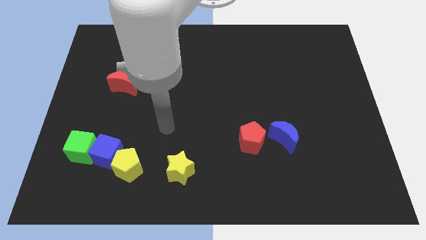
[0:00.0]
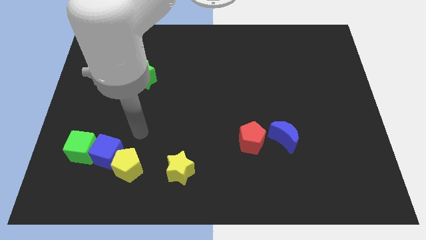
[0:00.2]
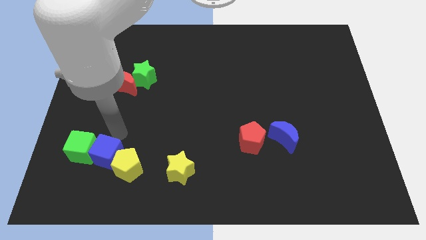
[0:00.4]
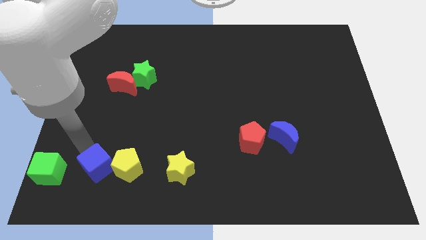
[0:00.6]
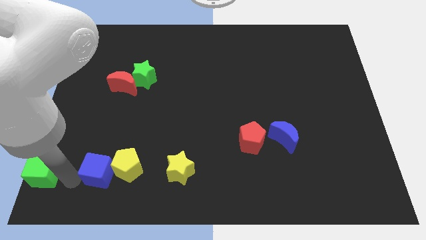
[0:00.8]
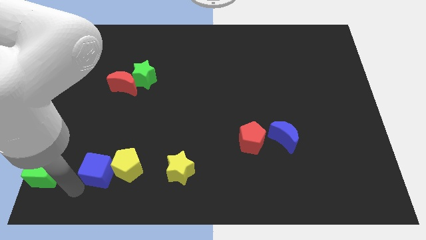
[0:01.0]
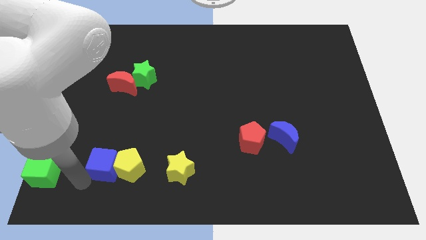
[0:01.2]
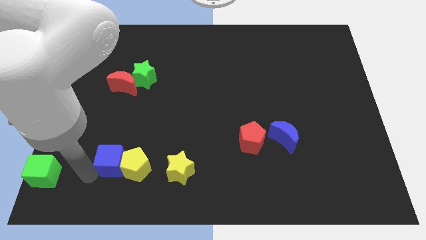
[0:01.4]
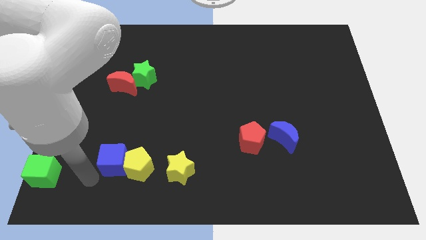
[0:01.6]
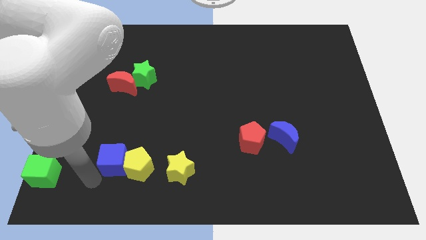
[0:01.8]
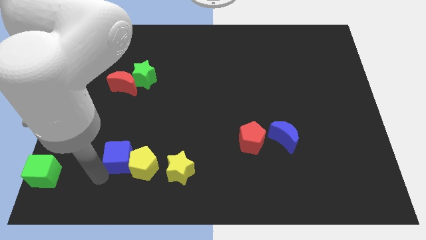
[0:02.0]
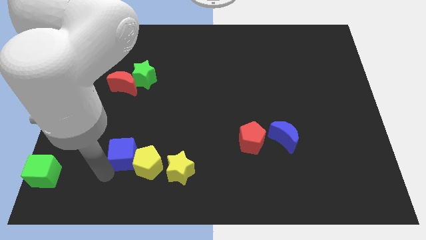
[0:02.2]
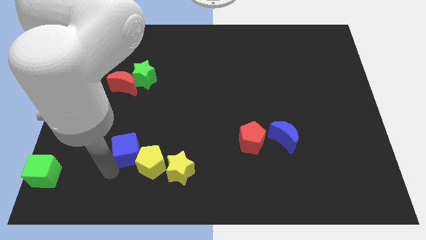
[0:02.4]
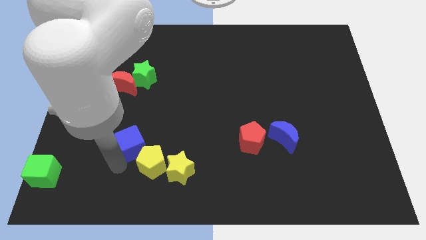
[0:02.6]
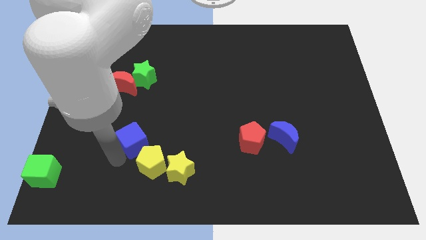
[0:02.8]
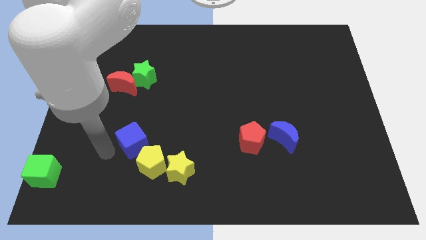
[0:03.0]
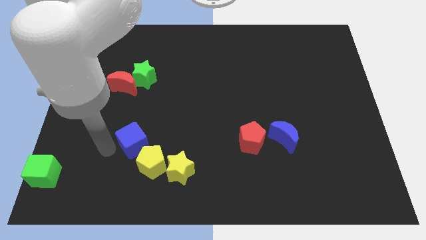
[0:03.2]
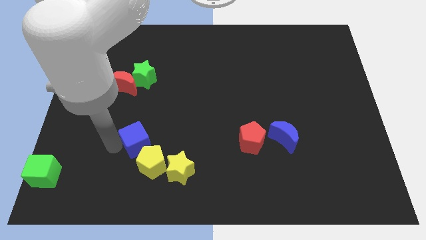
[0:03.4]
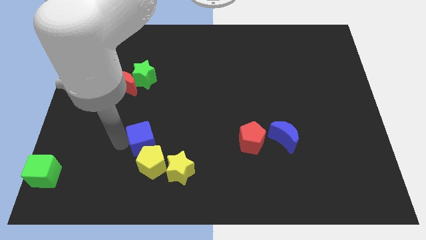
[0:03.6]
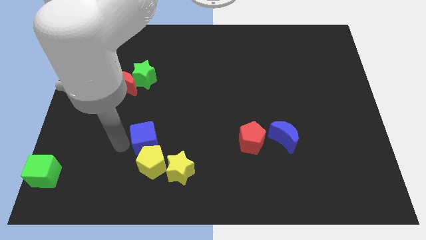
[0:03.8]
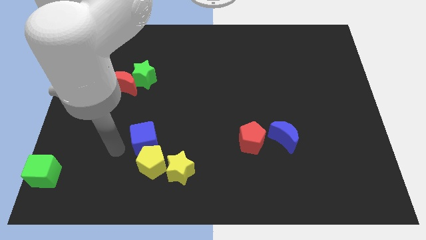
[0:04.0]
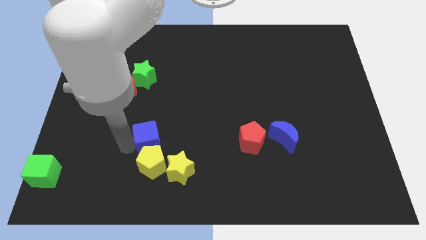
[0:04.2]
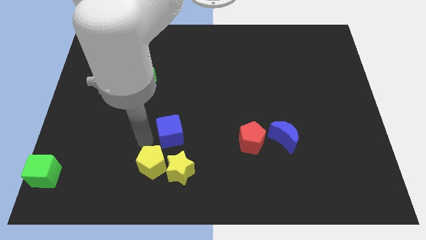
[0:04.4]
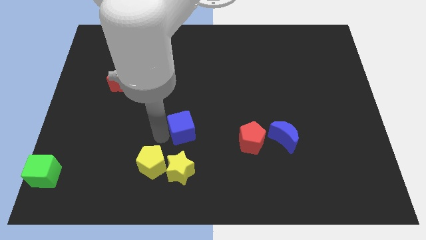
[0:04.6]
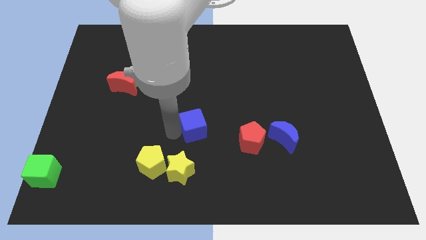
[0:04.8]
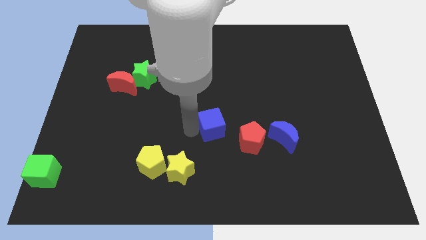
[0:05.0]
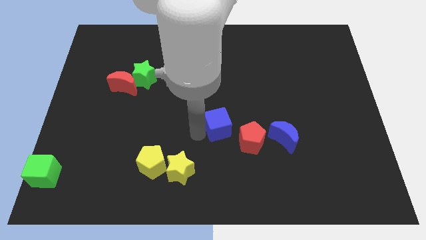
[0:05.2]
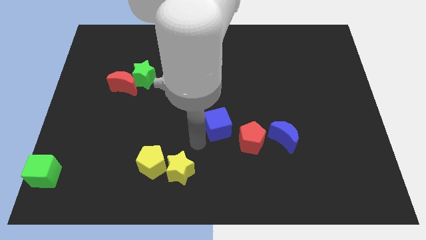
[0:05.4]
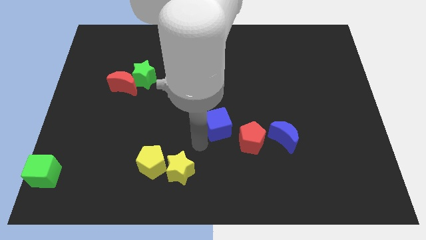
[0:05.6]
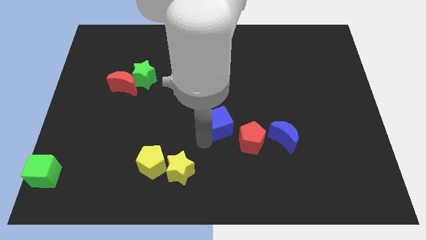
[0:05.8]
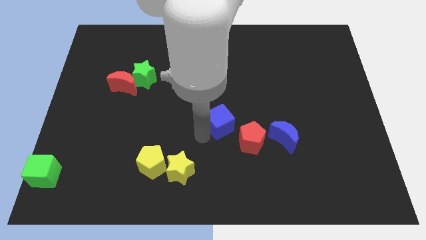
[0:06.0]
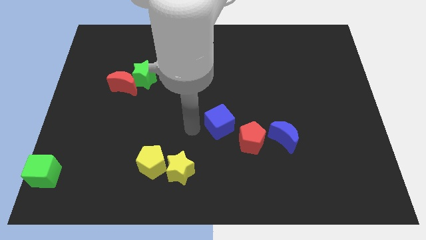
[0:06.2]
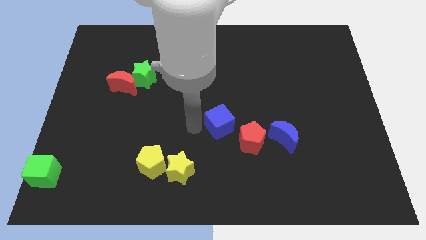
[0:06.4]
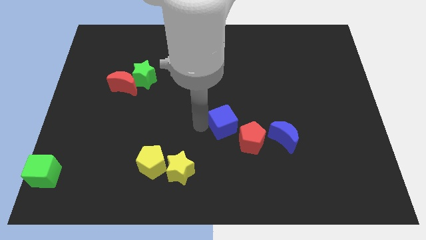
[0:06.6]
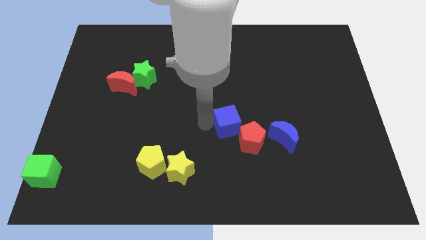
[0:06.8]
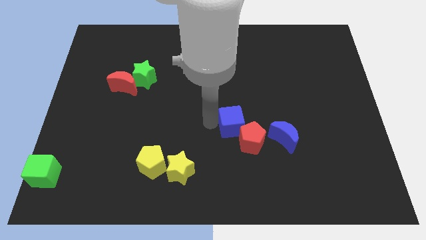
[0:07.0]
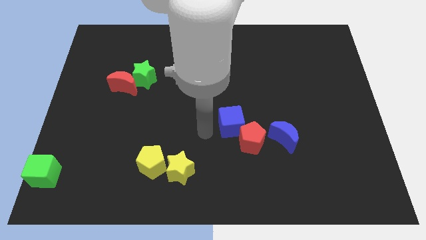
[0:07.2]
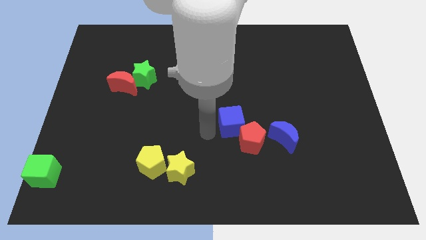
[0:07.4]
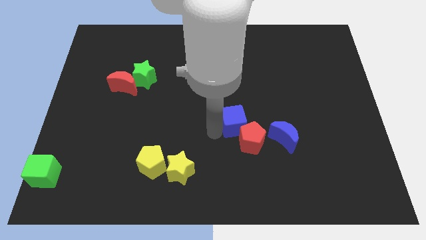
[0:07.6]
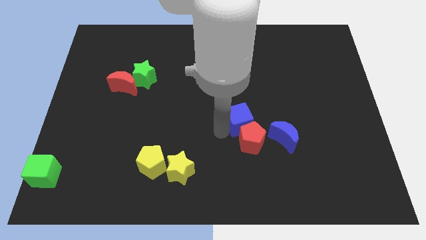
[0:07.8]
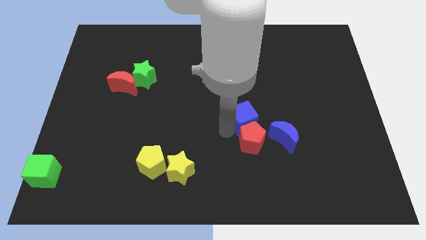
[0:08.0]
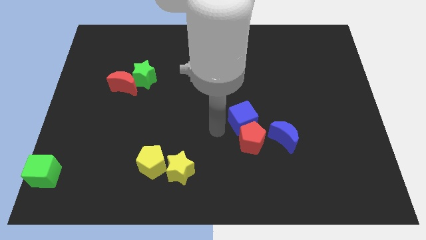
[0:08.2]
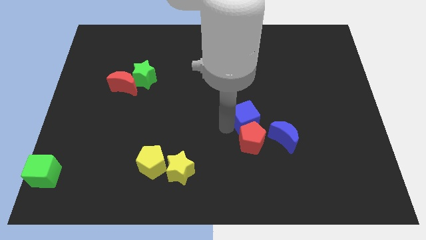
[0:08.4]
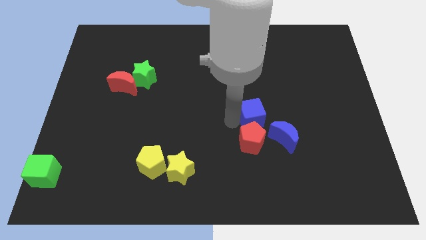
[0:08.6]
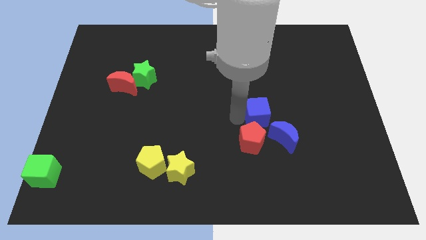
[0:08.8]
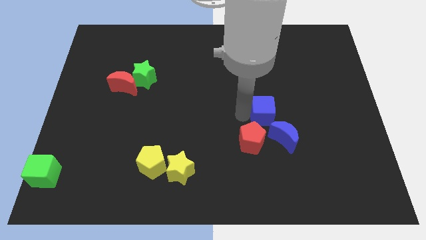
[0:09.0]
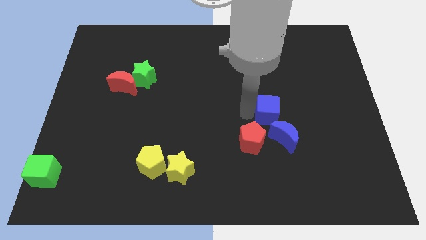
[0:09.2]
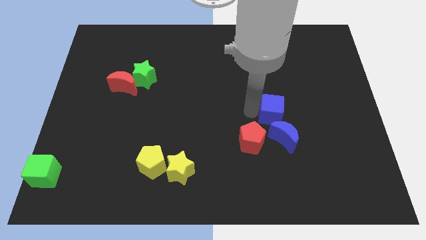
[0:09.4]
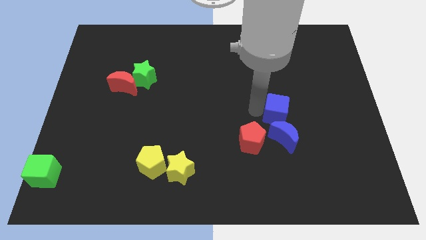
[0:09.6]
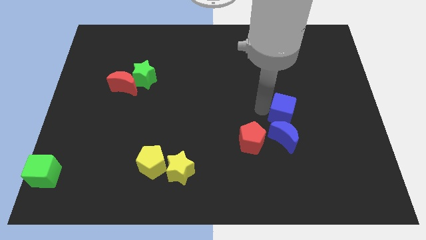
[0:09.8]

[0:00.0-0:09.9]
slide the blue cube to the top right of the blue moon

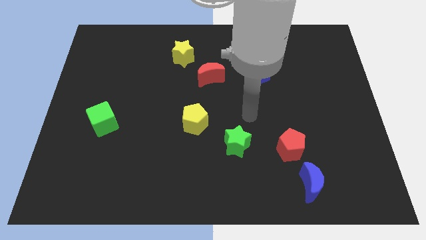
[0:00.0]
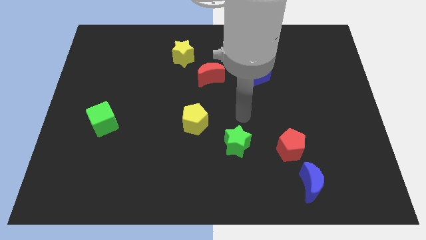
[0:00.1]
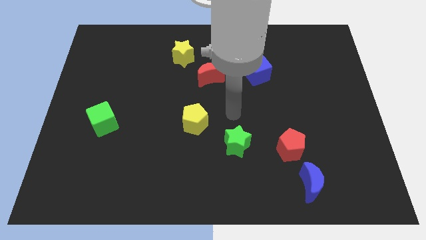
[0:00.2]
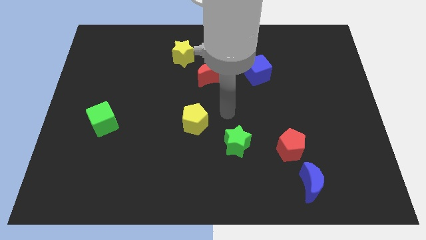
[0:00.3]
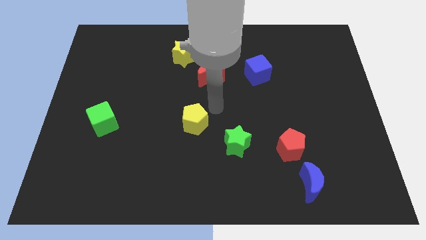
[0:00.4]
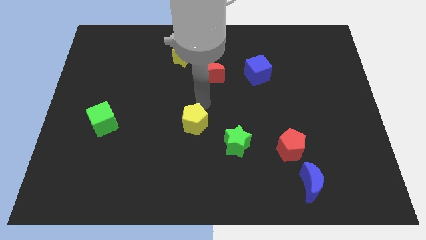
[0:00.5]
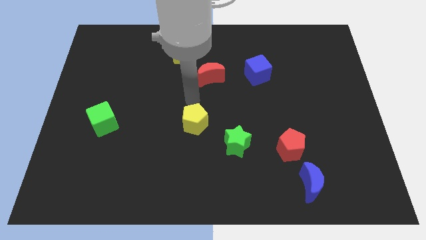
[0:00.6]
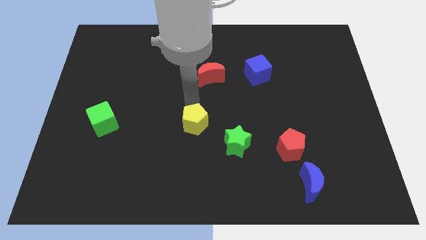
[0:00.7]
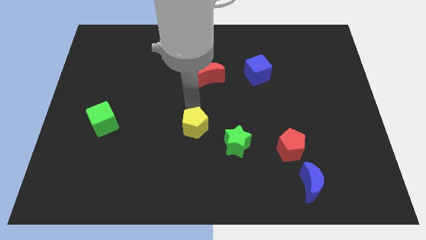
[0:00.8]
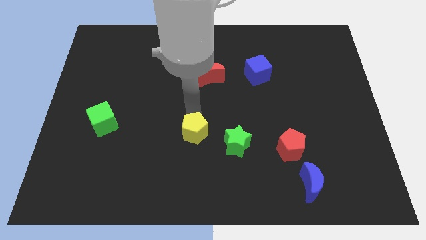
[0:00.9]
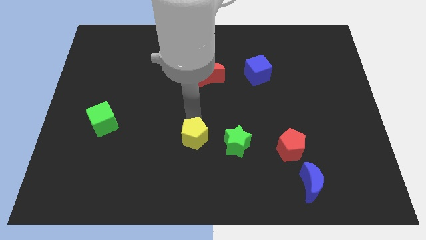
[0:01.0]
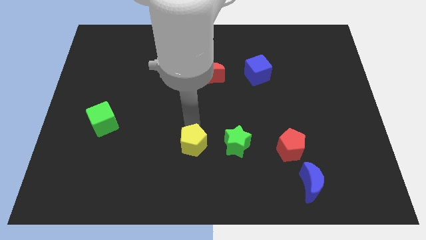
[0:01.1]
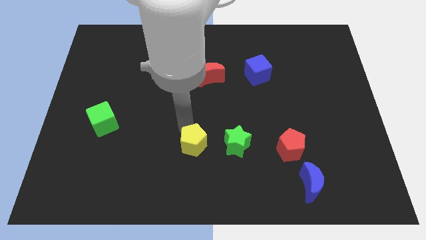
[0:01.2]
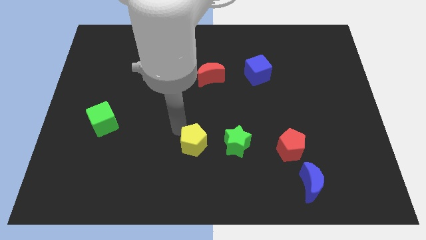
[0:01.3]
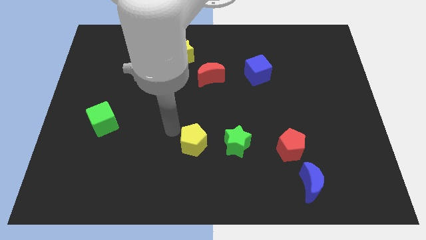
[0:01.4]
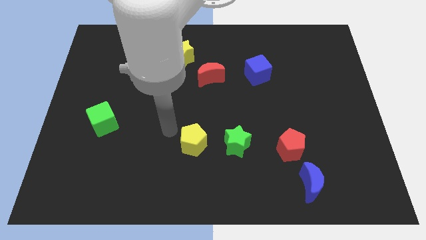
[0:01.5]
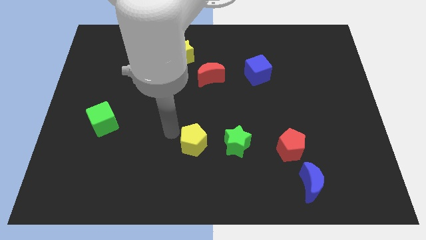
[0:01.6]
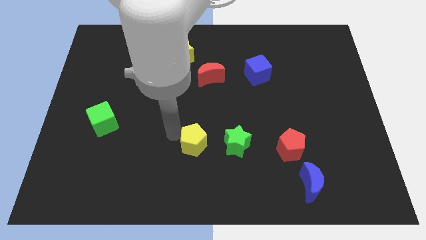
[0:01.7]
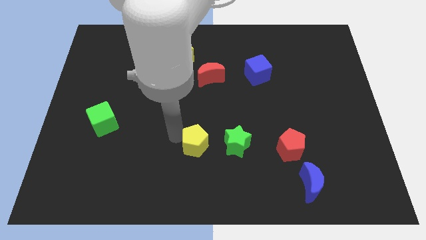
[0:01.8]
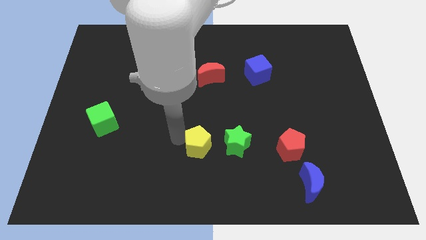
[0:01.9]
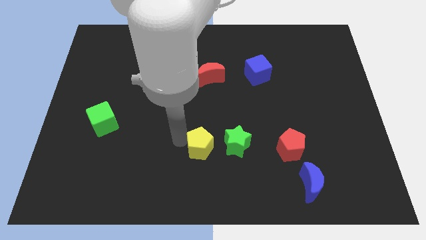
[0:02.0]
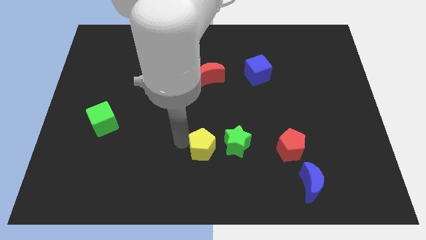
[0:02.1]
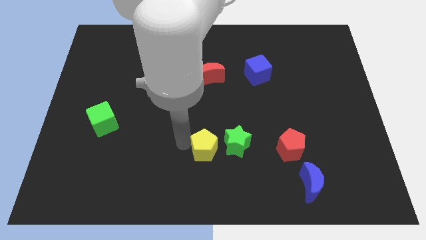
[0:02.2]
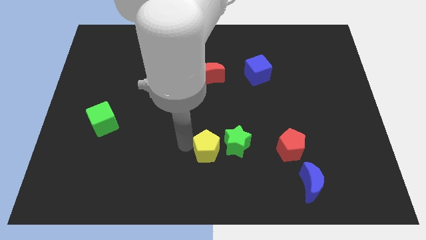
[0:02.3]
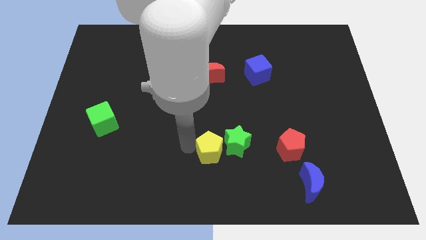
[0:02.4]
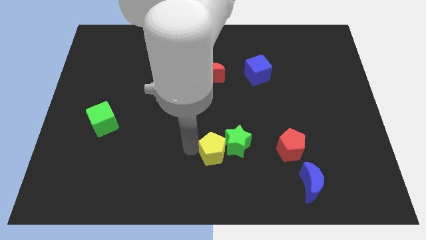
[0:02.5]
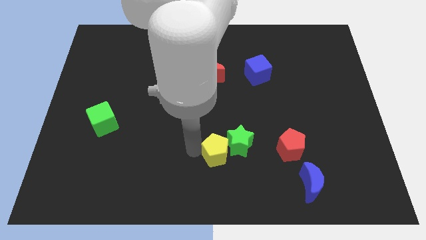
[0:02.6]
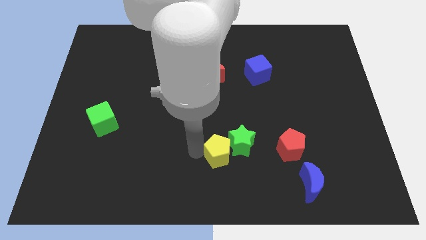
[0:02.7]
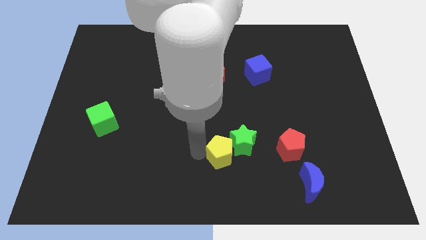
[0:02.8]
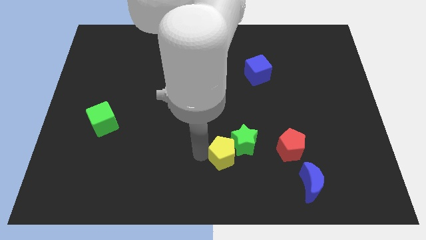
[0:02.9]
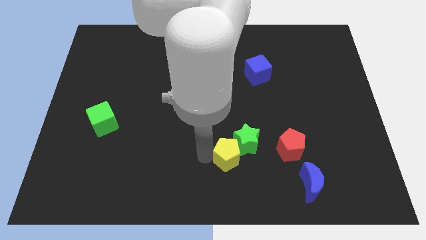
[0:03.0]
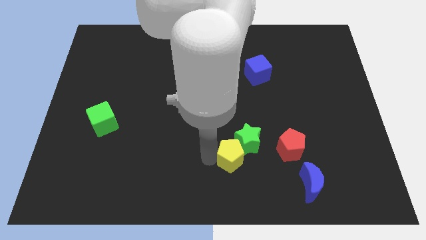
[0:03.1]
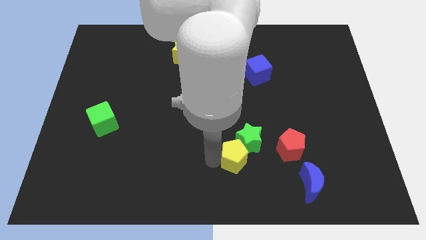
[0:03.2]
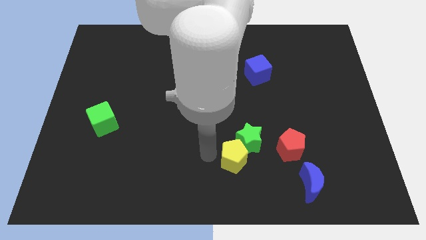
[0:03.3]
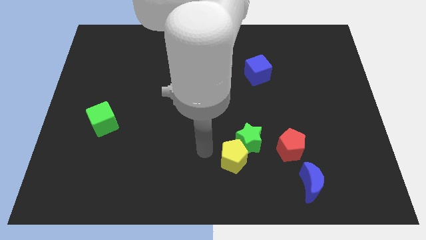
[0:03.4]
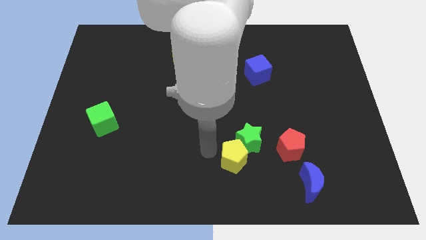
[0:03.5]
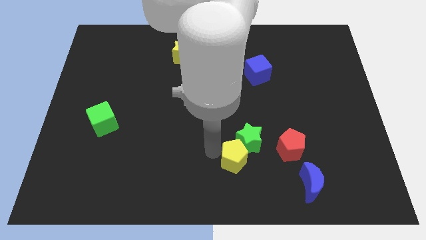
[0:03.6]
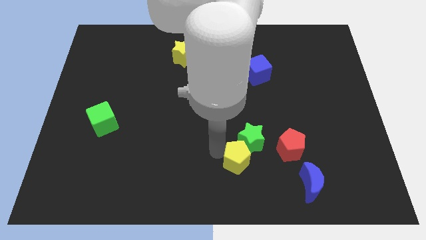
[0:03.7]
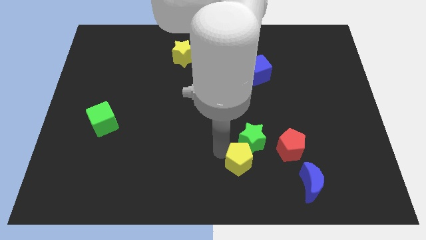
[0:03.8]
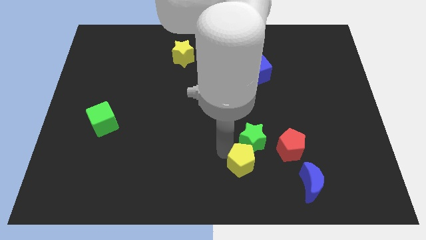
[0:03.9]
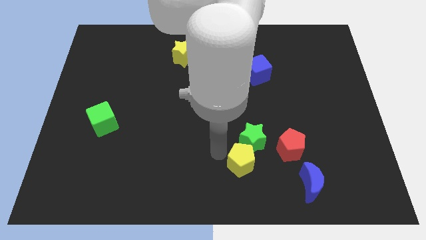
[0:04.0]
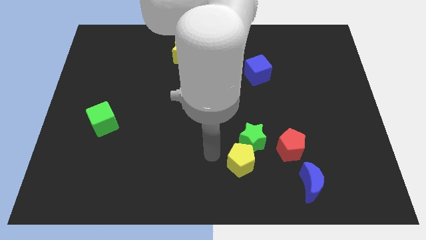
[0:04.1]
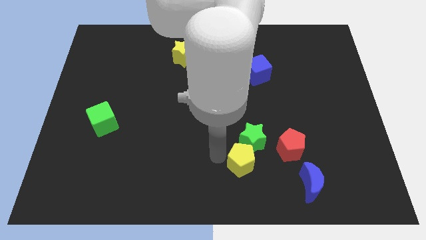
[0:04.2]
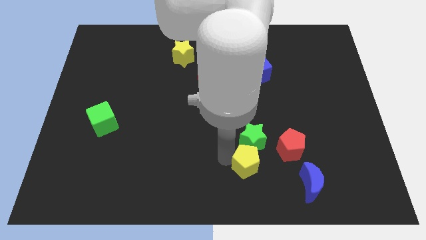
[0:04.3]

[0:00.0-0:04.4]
slide the yellow pentagon diagonally down and to the left of the red pentagon
